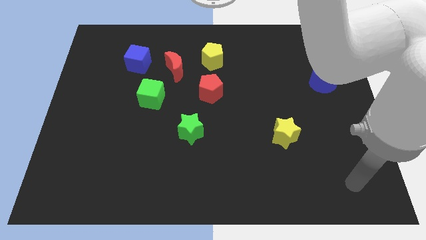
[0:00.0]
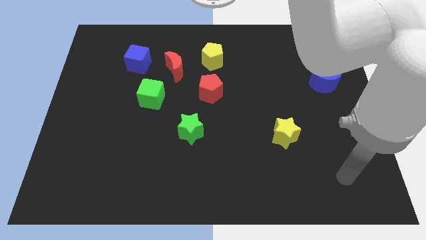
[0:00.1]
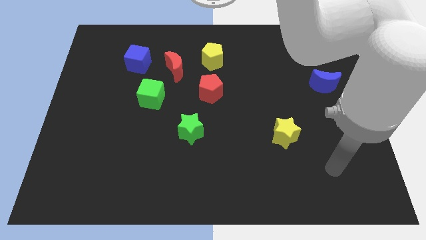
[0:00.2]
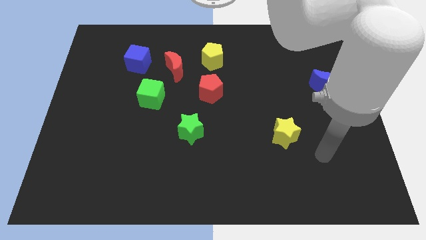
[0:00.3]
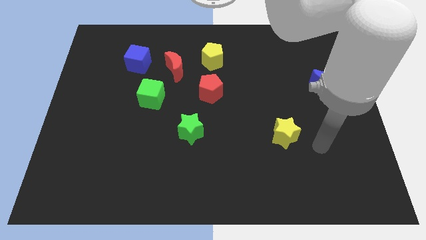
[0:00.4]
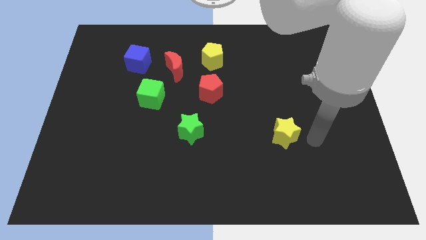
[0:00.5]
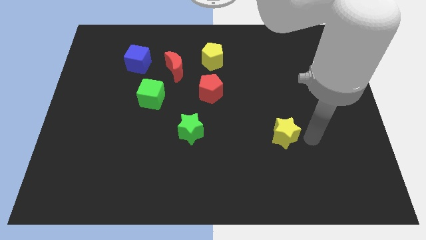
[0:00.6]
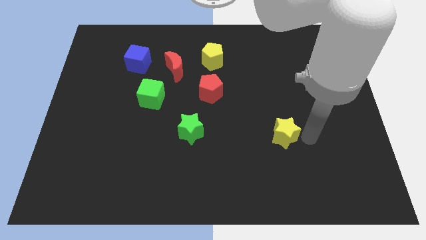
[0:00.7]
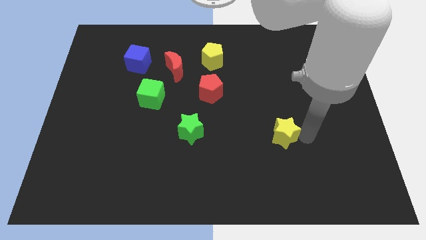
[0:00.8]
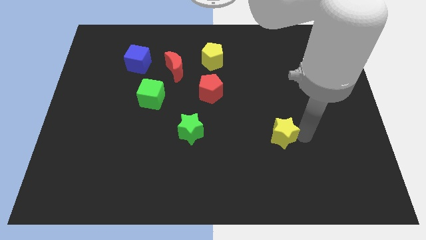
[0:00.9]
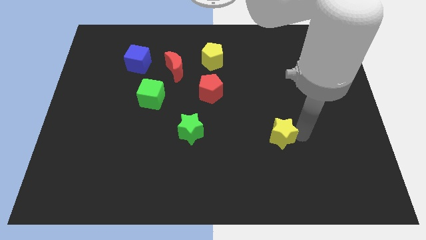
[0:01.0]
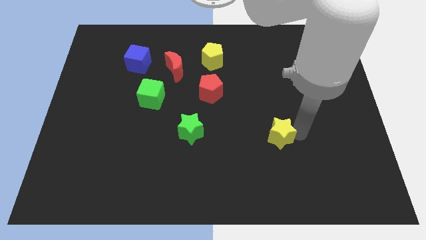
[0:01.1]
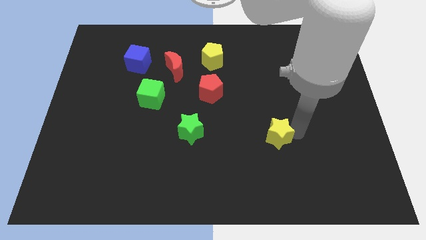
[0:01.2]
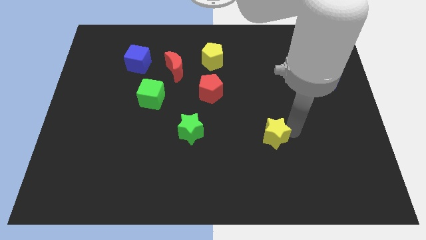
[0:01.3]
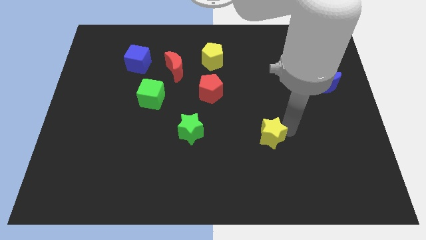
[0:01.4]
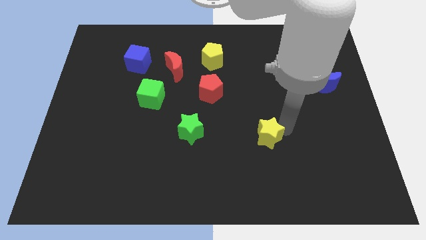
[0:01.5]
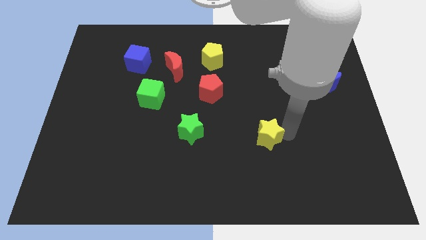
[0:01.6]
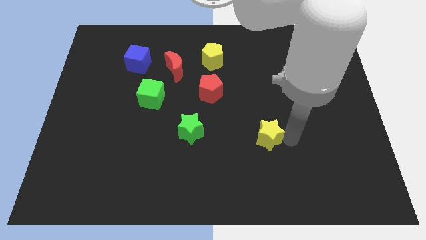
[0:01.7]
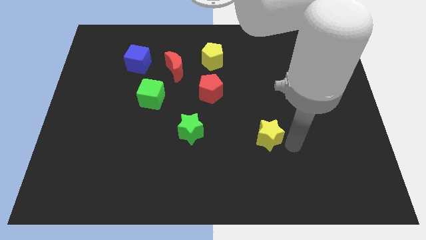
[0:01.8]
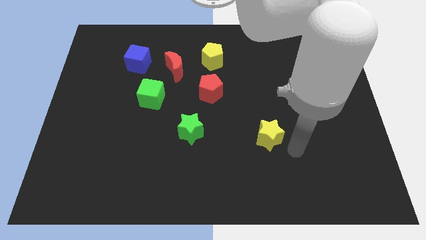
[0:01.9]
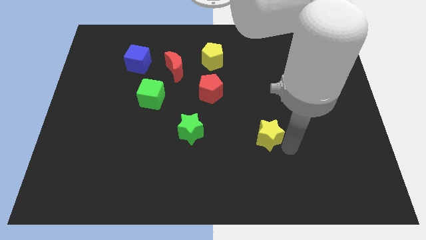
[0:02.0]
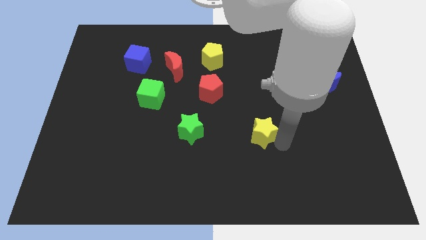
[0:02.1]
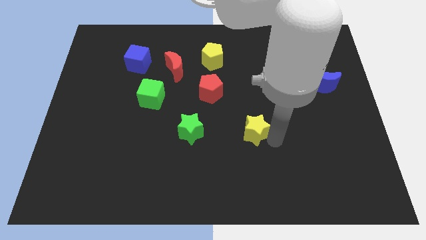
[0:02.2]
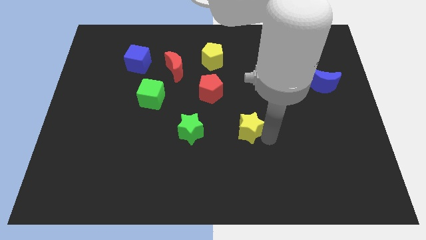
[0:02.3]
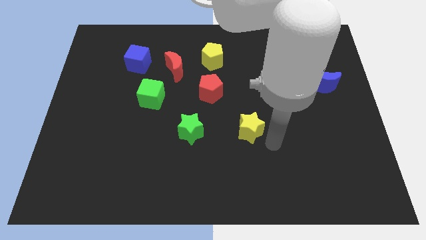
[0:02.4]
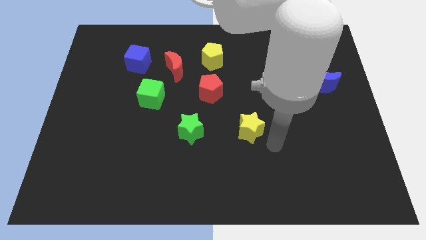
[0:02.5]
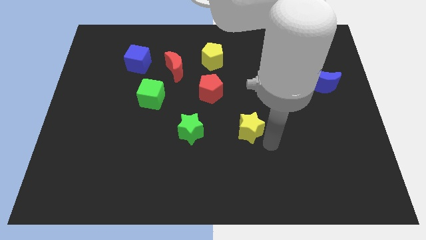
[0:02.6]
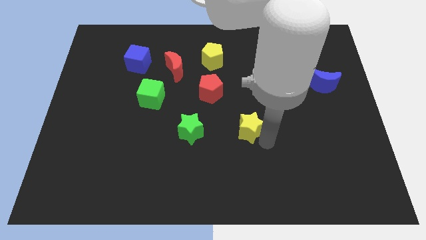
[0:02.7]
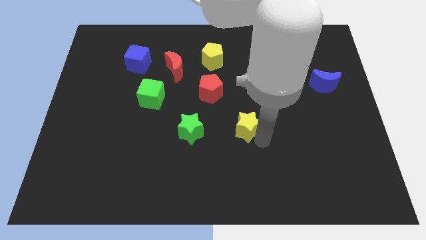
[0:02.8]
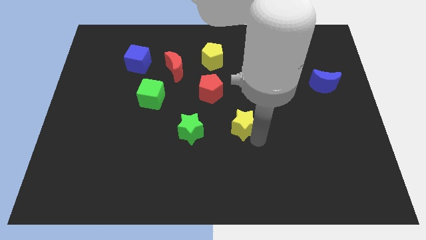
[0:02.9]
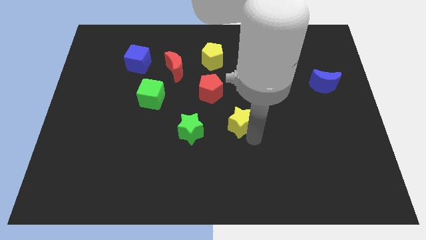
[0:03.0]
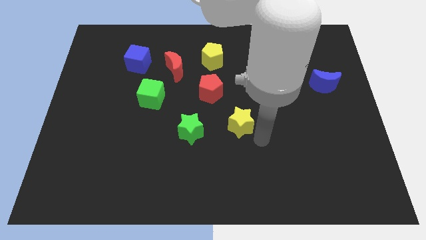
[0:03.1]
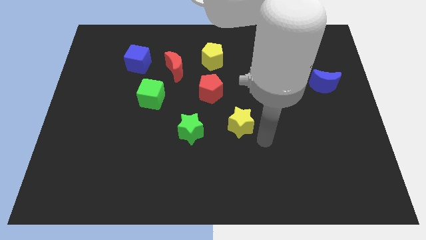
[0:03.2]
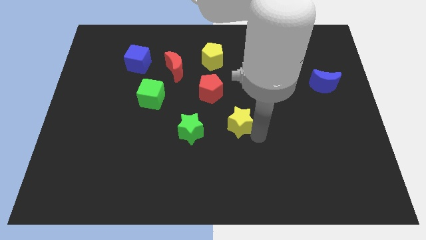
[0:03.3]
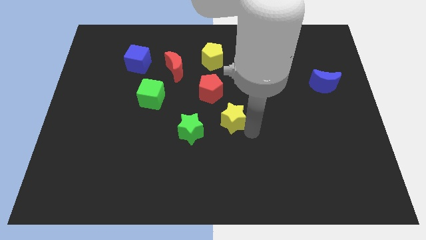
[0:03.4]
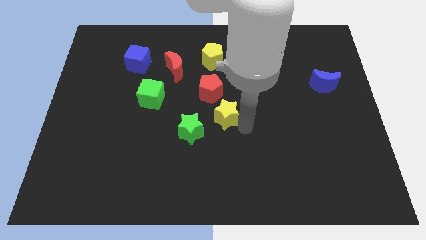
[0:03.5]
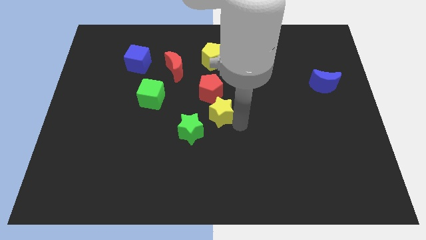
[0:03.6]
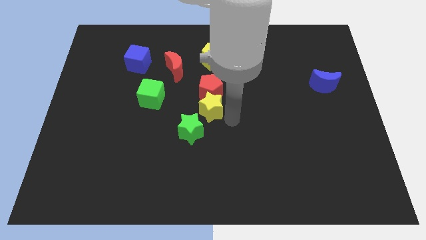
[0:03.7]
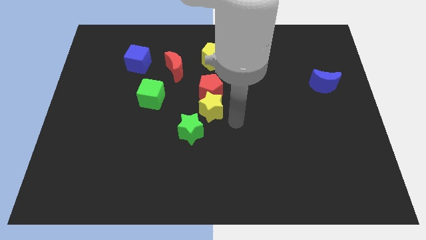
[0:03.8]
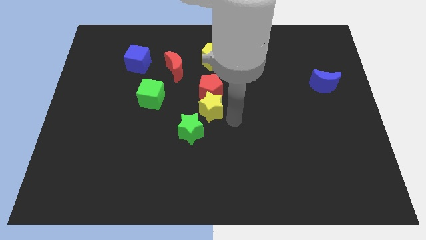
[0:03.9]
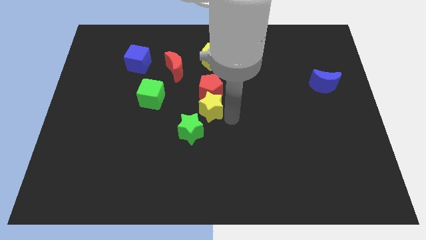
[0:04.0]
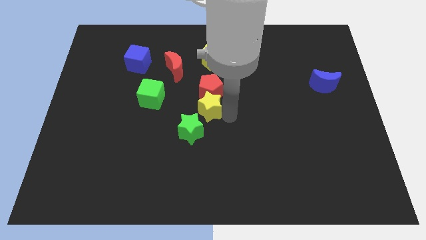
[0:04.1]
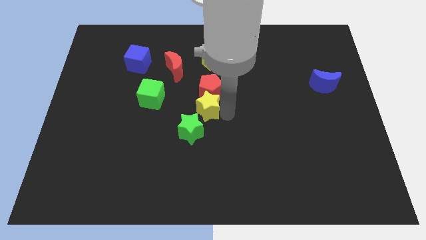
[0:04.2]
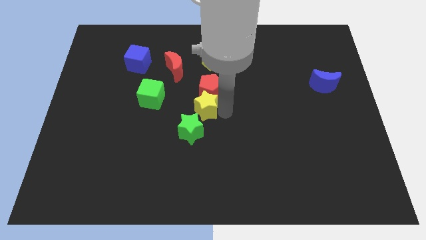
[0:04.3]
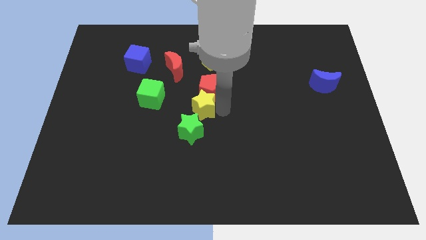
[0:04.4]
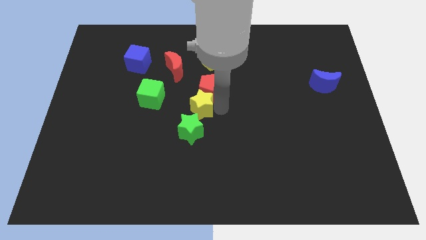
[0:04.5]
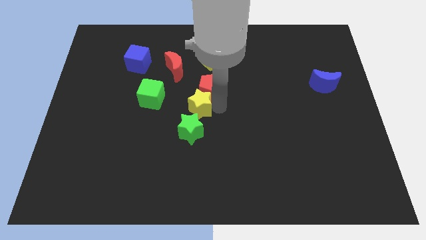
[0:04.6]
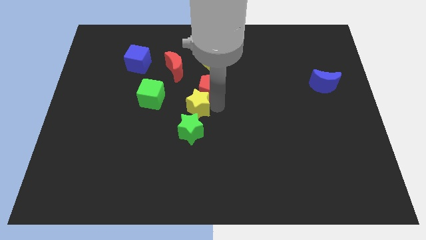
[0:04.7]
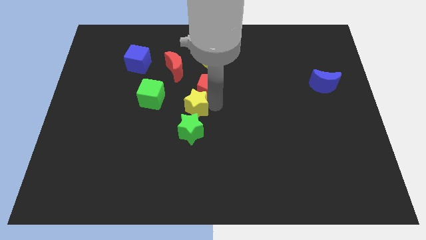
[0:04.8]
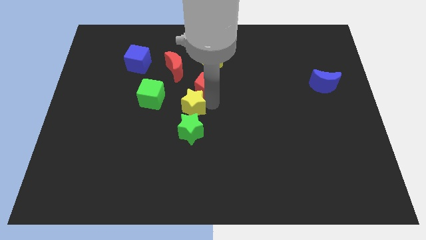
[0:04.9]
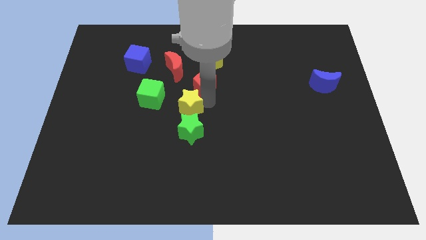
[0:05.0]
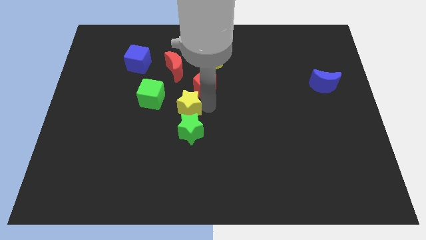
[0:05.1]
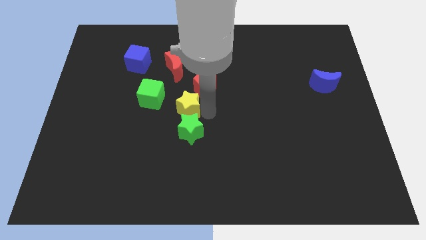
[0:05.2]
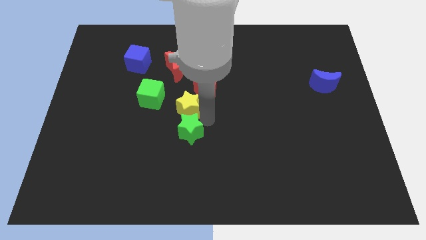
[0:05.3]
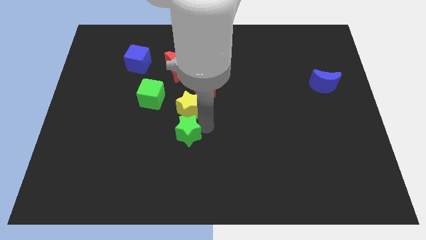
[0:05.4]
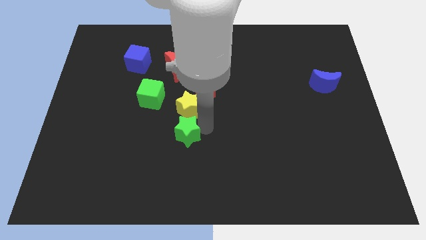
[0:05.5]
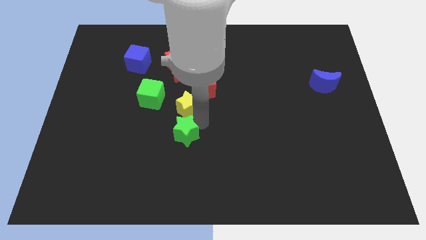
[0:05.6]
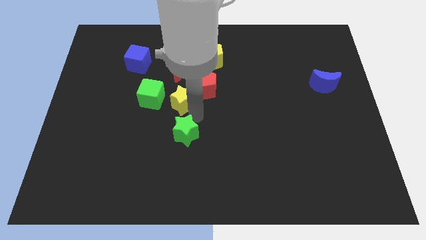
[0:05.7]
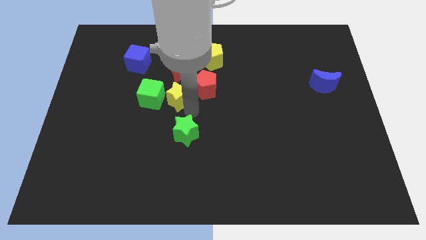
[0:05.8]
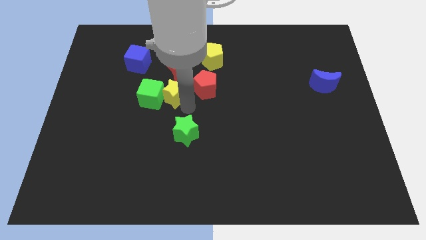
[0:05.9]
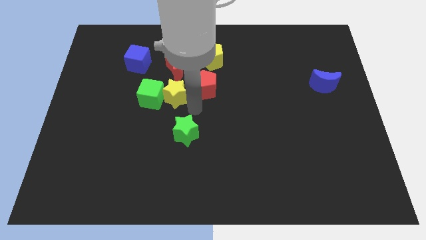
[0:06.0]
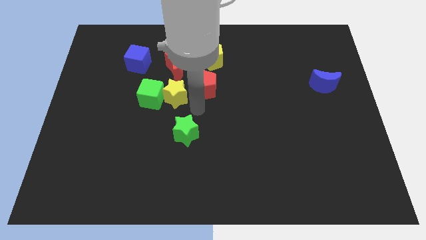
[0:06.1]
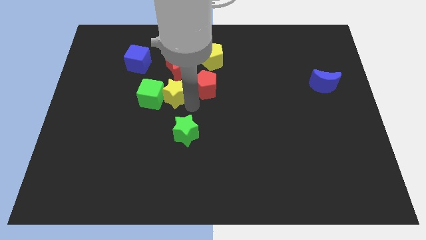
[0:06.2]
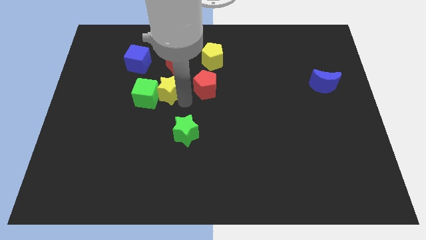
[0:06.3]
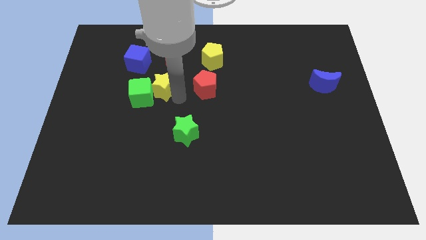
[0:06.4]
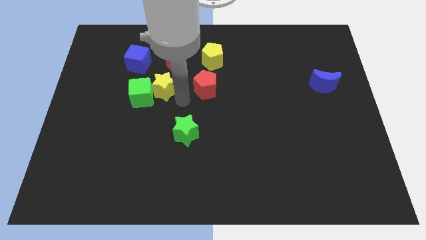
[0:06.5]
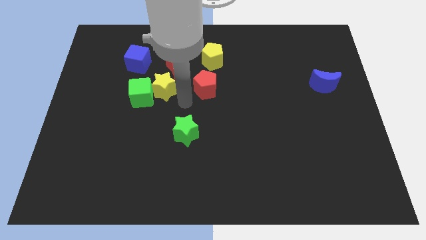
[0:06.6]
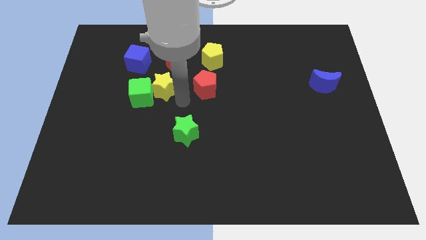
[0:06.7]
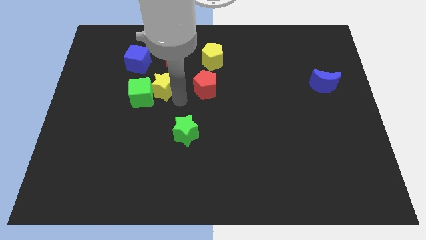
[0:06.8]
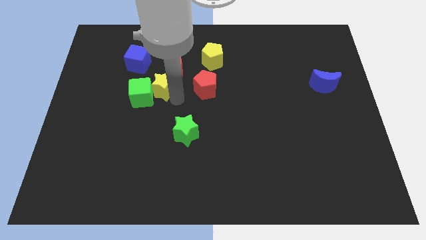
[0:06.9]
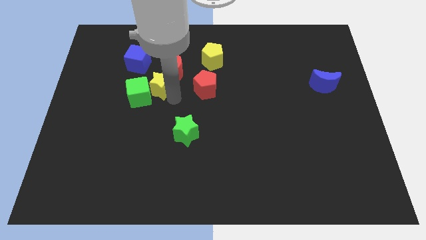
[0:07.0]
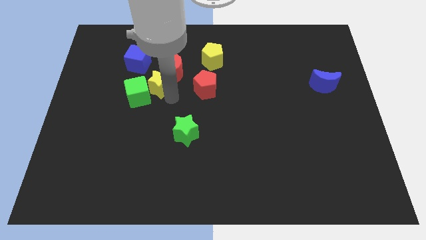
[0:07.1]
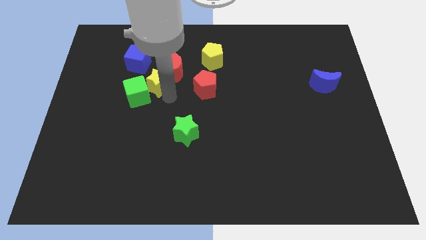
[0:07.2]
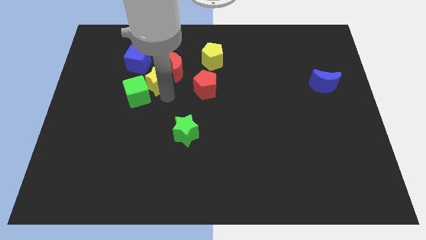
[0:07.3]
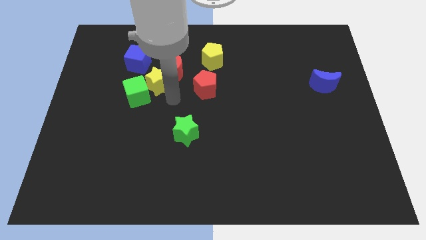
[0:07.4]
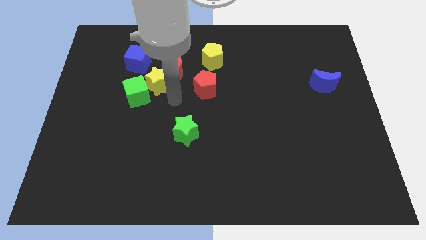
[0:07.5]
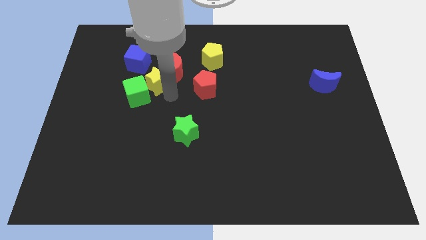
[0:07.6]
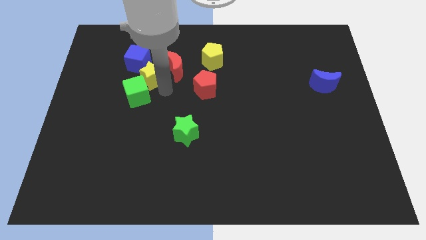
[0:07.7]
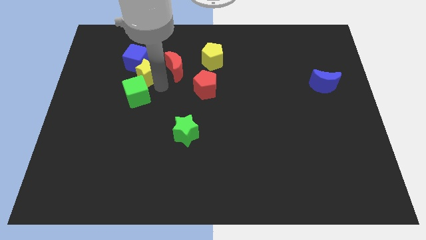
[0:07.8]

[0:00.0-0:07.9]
put the yellow star to the blue cube
